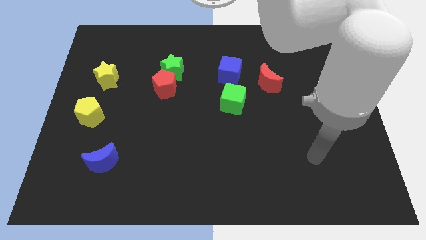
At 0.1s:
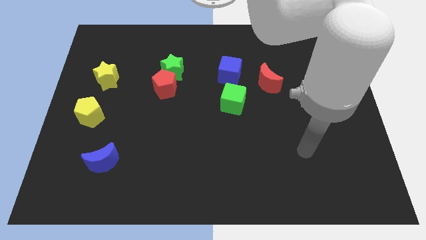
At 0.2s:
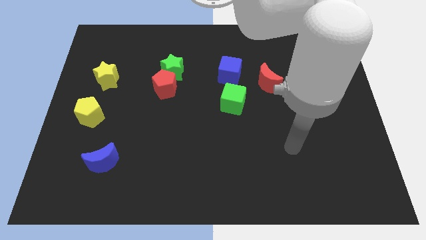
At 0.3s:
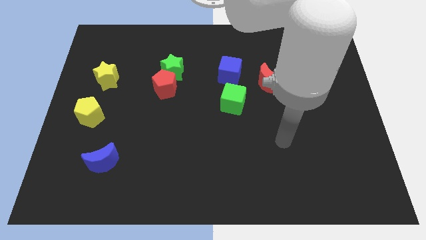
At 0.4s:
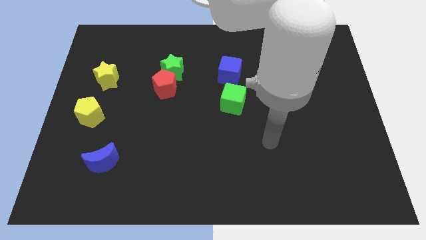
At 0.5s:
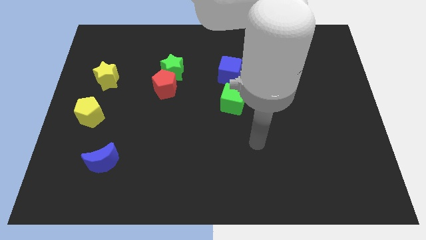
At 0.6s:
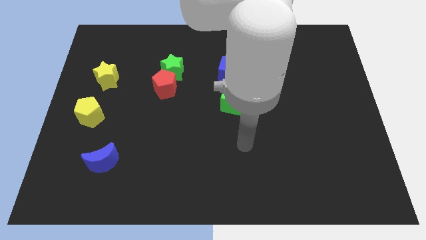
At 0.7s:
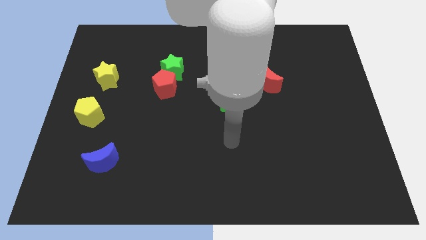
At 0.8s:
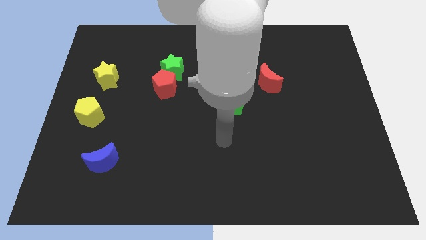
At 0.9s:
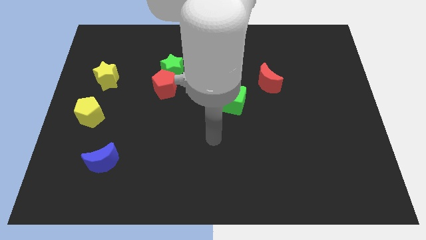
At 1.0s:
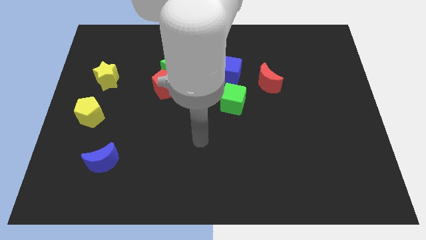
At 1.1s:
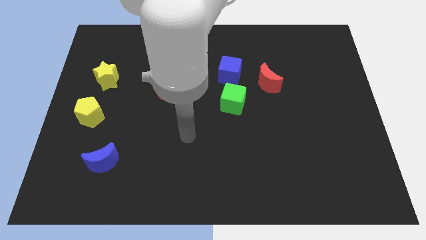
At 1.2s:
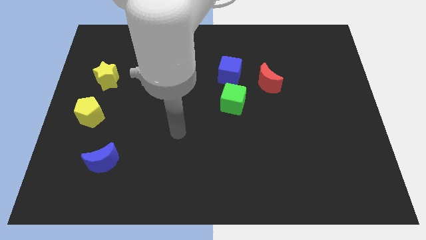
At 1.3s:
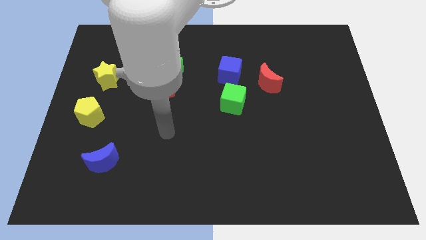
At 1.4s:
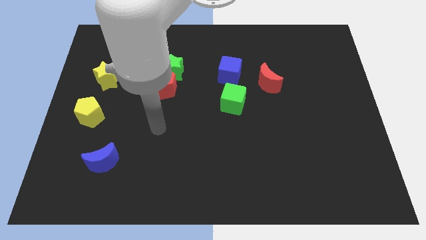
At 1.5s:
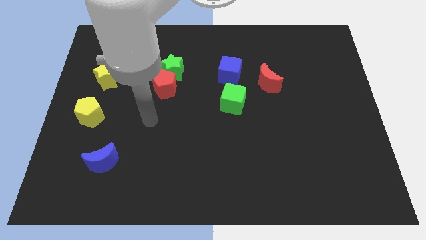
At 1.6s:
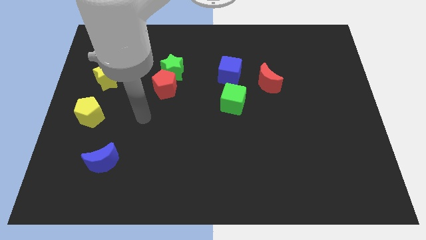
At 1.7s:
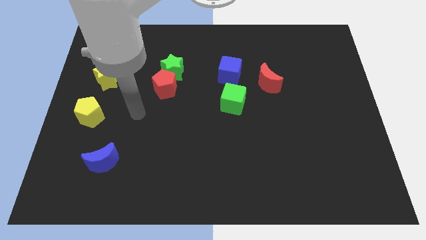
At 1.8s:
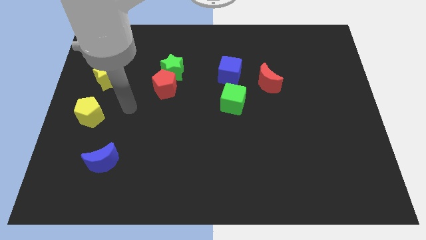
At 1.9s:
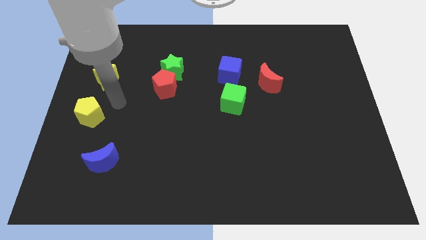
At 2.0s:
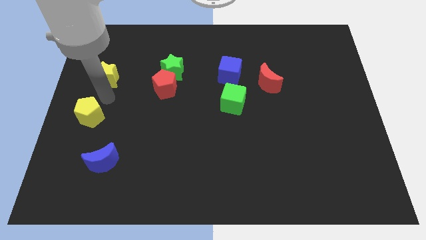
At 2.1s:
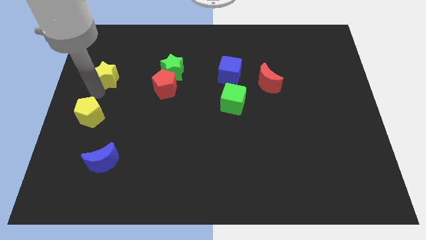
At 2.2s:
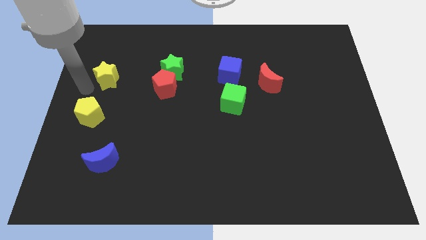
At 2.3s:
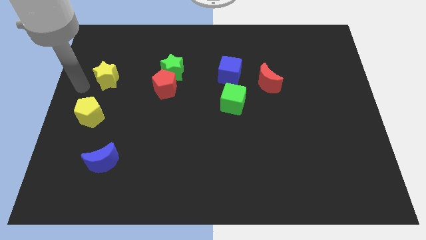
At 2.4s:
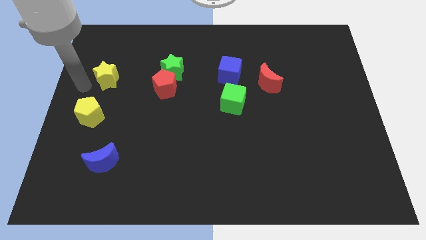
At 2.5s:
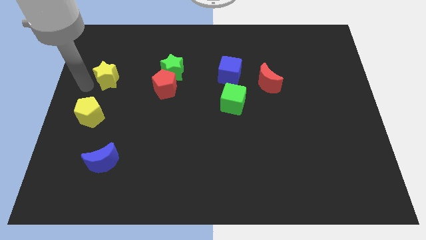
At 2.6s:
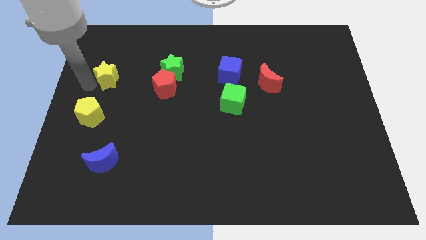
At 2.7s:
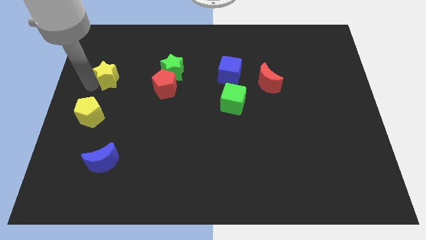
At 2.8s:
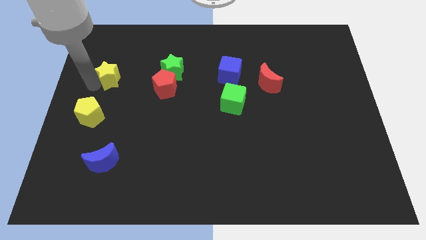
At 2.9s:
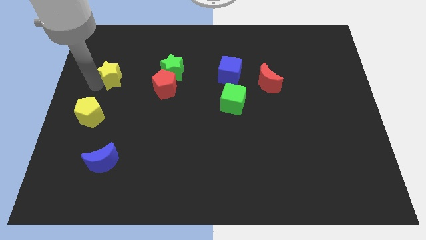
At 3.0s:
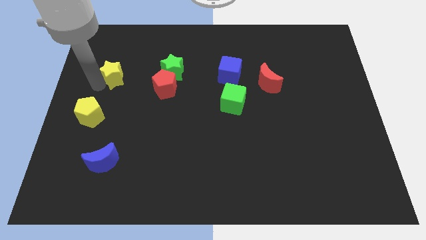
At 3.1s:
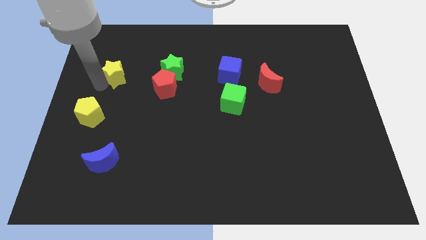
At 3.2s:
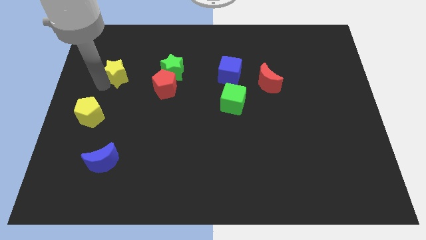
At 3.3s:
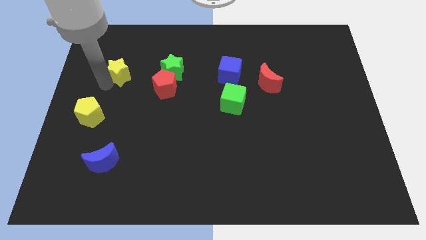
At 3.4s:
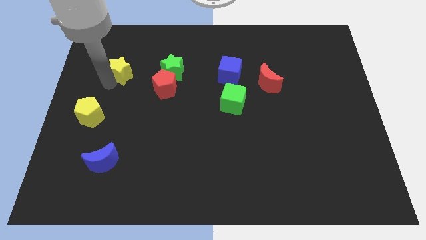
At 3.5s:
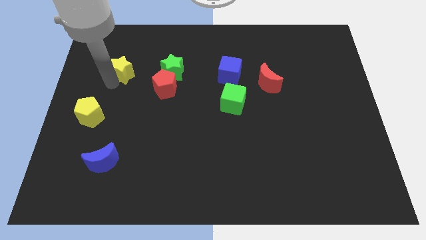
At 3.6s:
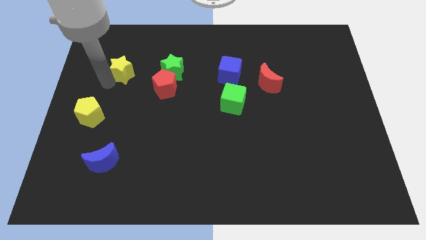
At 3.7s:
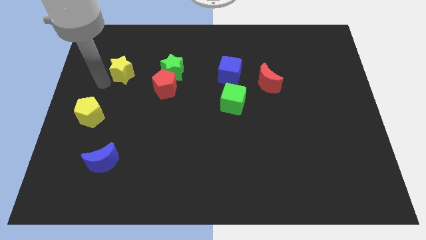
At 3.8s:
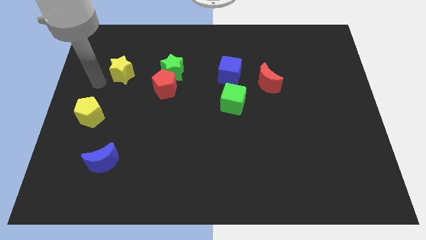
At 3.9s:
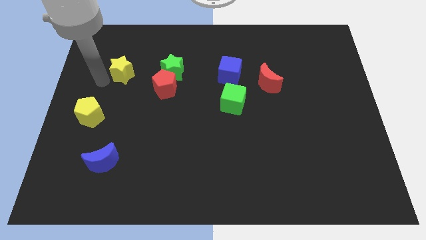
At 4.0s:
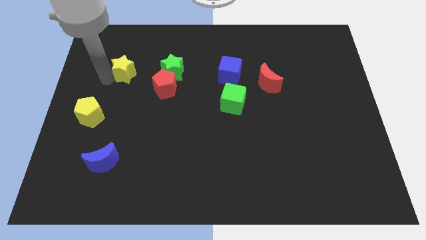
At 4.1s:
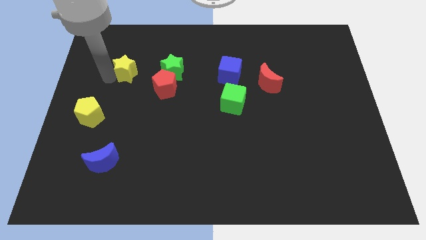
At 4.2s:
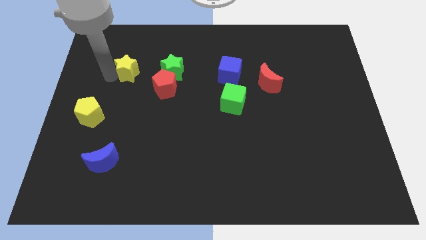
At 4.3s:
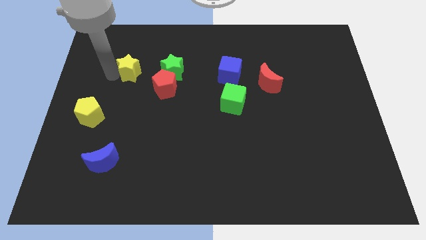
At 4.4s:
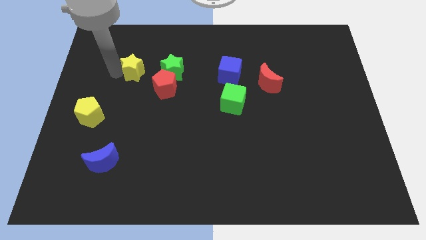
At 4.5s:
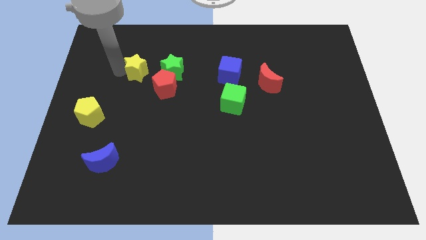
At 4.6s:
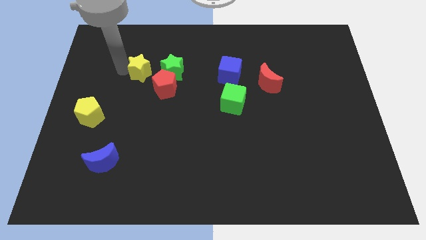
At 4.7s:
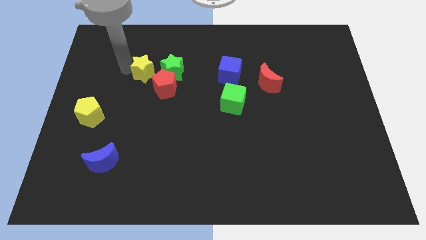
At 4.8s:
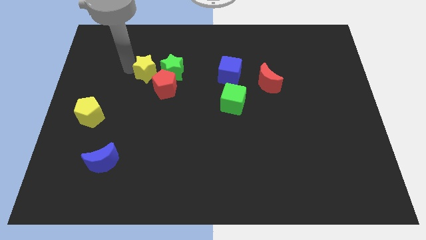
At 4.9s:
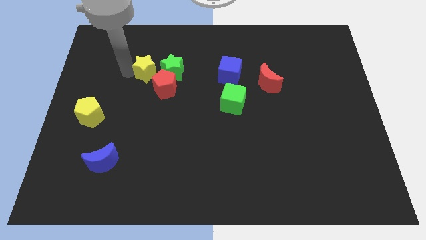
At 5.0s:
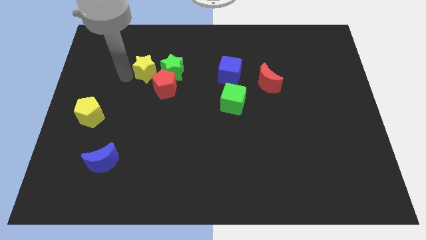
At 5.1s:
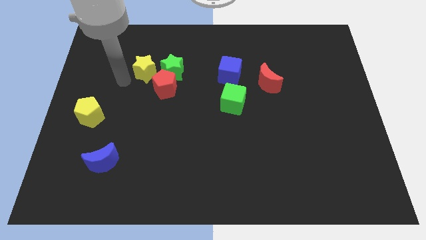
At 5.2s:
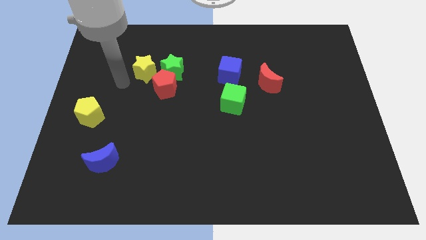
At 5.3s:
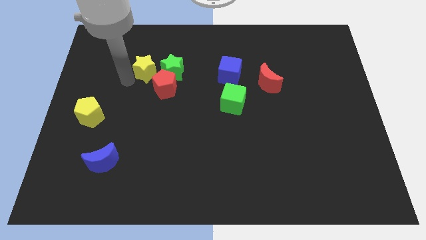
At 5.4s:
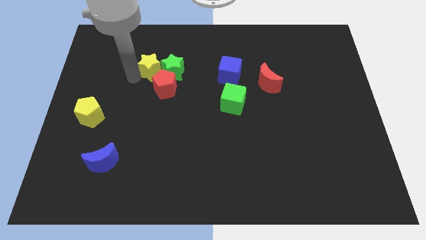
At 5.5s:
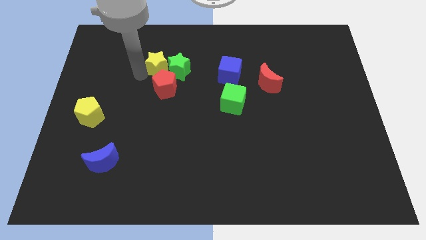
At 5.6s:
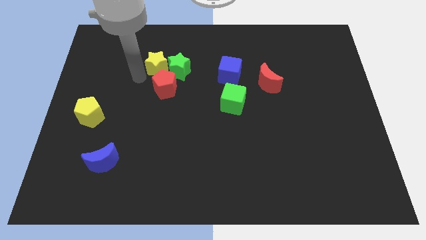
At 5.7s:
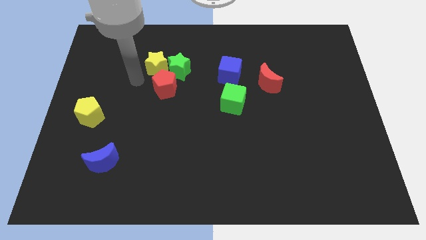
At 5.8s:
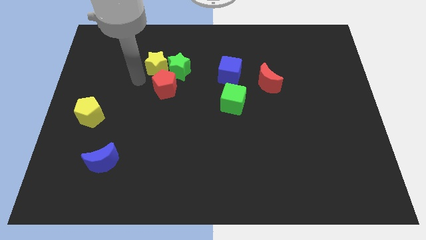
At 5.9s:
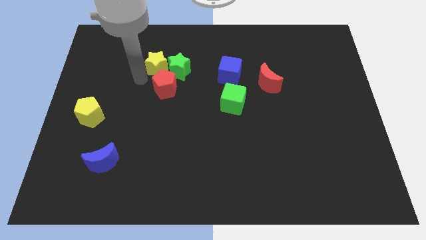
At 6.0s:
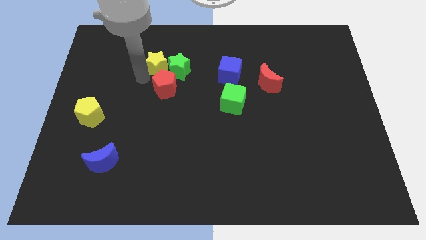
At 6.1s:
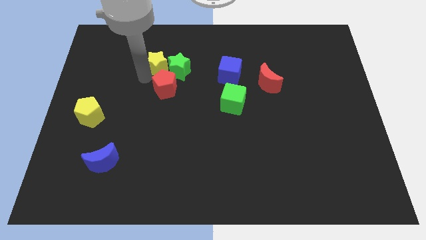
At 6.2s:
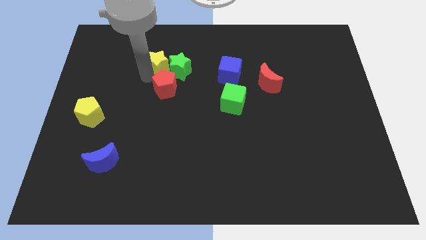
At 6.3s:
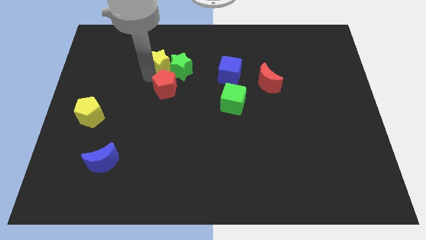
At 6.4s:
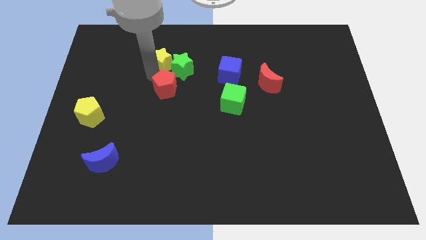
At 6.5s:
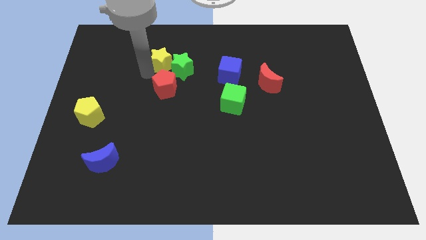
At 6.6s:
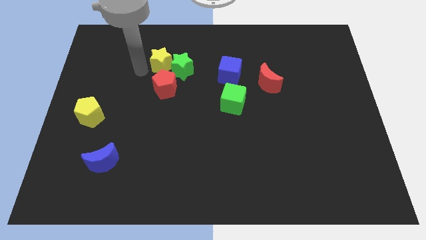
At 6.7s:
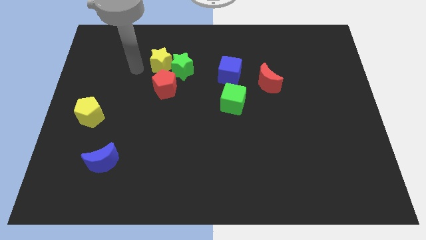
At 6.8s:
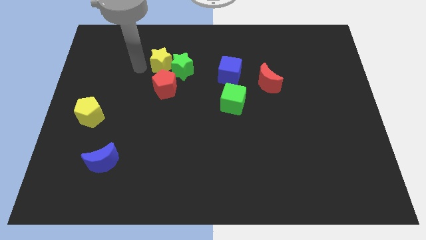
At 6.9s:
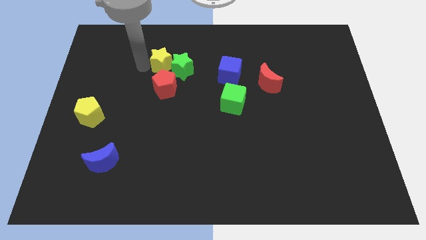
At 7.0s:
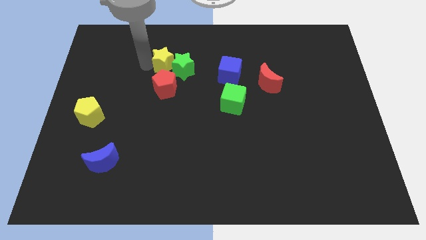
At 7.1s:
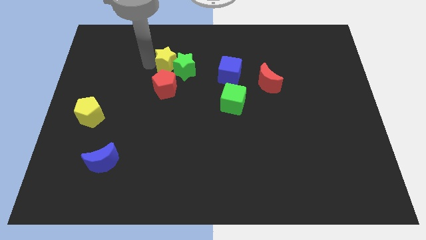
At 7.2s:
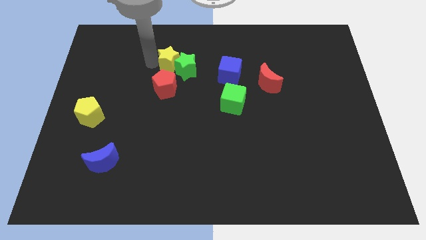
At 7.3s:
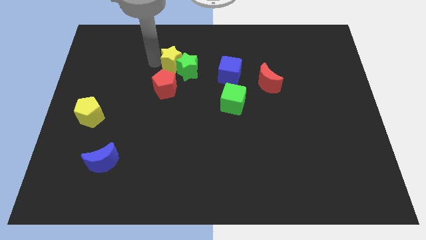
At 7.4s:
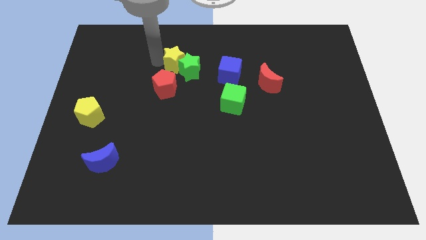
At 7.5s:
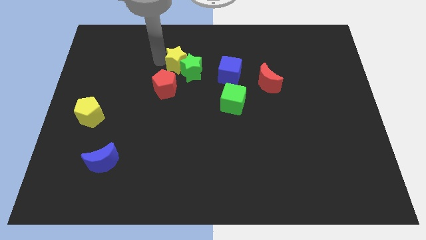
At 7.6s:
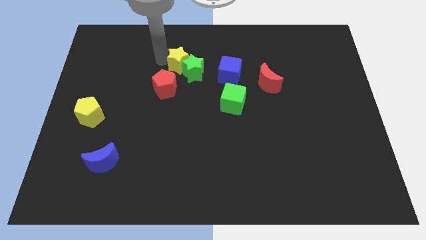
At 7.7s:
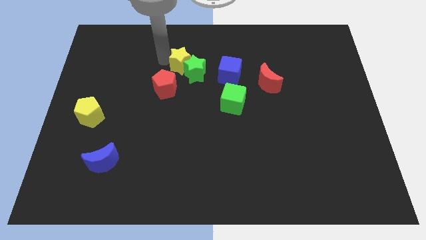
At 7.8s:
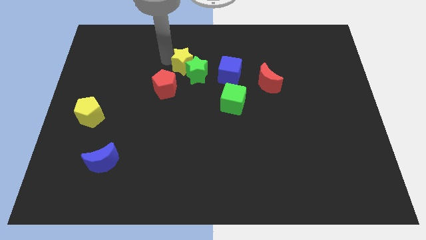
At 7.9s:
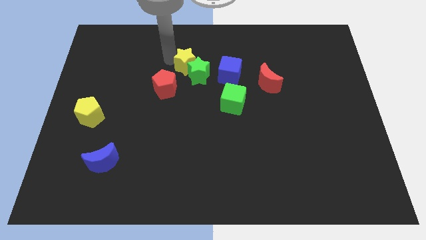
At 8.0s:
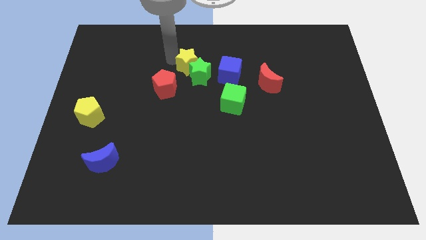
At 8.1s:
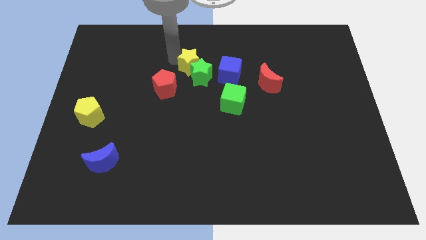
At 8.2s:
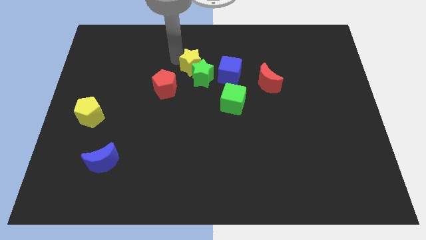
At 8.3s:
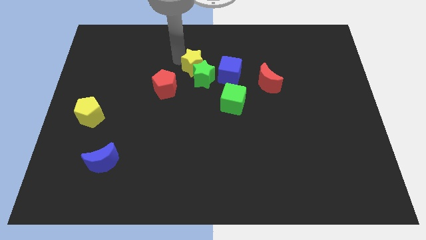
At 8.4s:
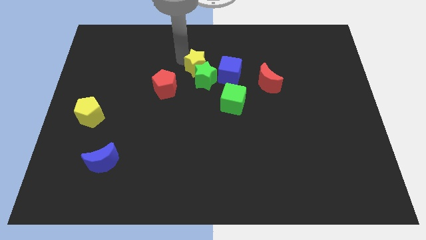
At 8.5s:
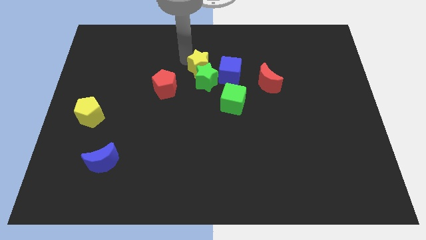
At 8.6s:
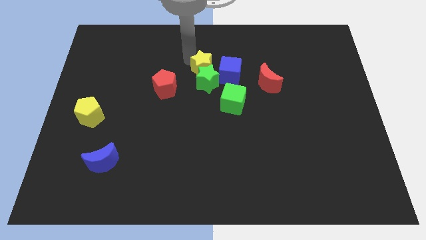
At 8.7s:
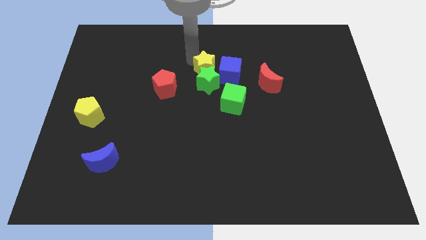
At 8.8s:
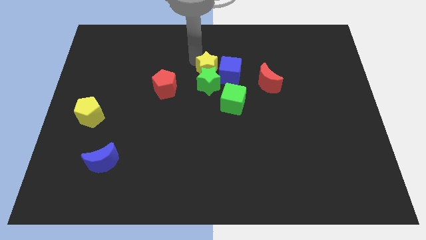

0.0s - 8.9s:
slide the yellow star next to the blue cube
